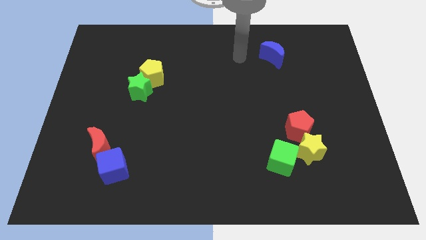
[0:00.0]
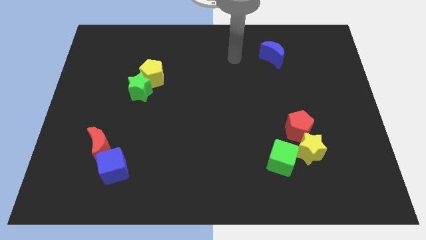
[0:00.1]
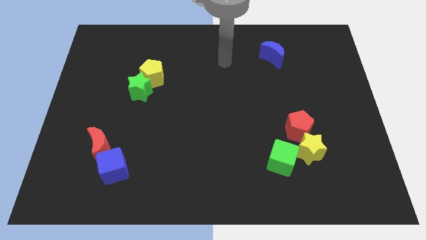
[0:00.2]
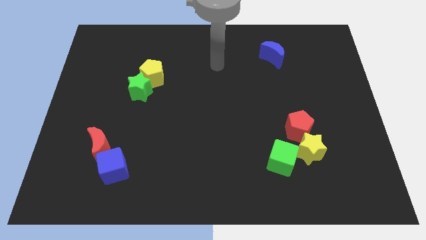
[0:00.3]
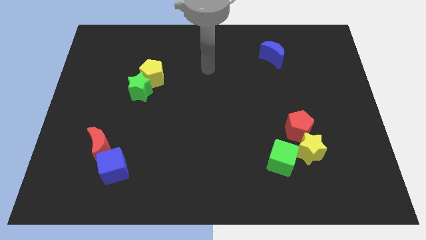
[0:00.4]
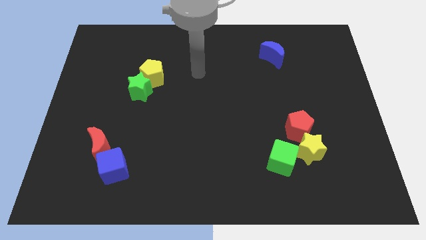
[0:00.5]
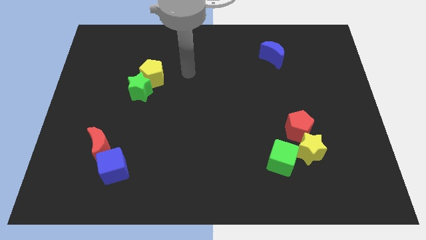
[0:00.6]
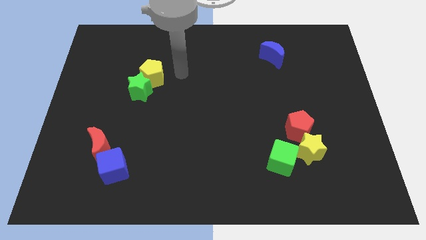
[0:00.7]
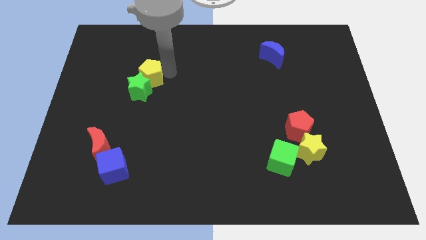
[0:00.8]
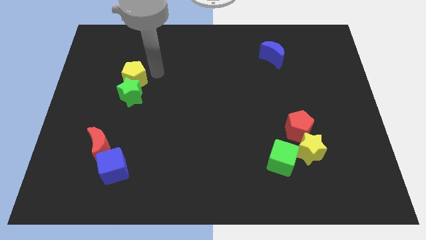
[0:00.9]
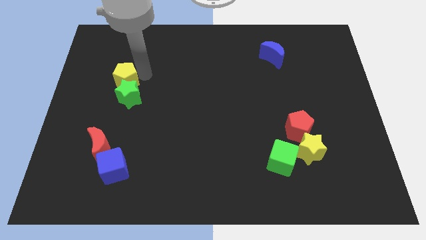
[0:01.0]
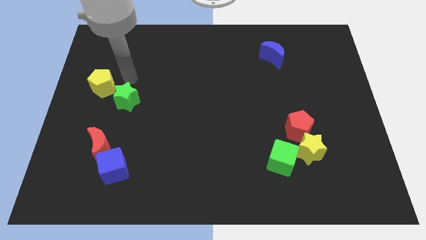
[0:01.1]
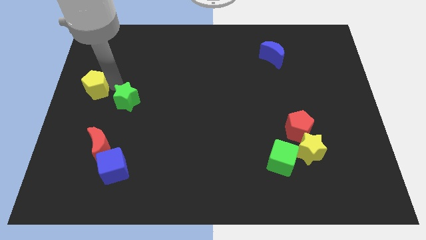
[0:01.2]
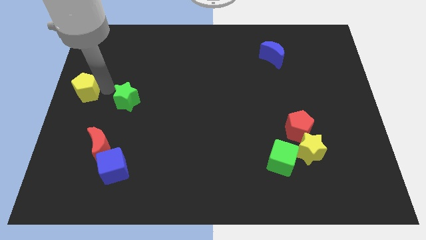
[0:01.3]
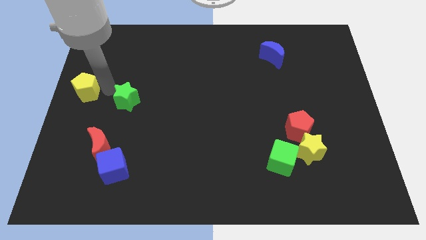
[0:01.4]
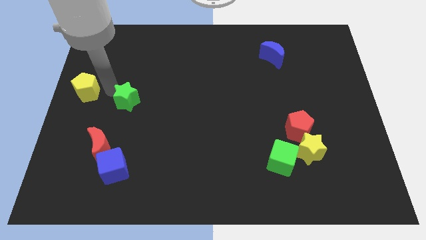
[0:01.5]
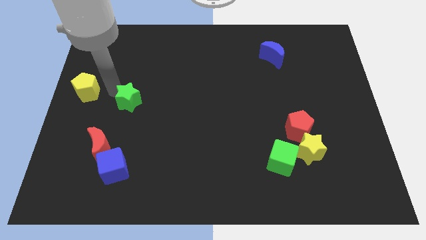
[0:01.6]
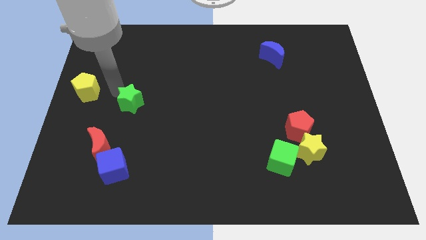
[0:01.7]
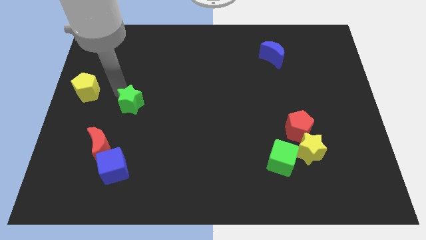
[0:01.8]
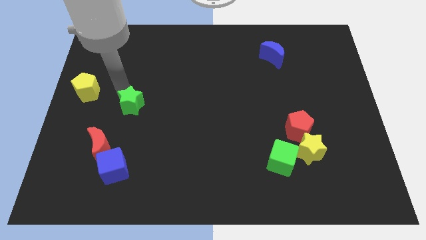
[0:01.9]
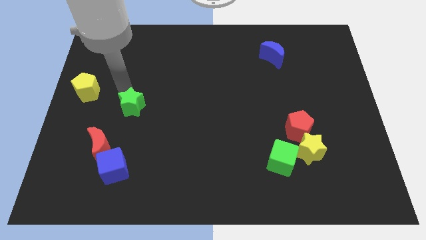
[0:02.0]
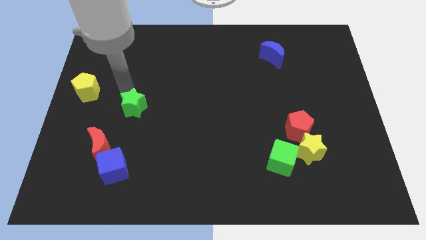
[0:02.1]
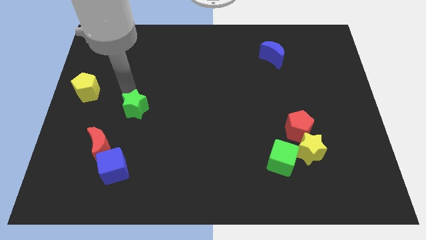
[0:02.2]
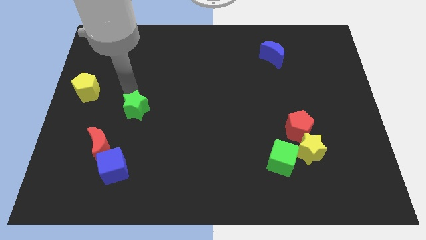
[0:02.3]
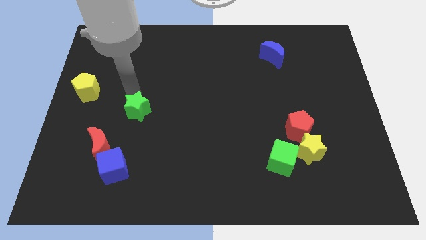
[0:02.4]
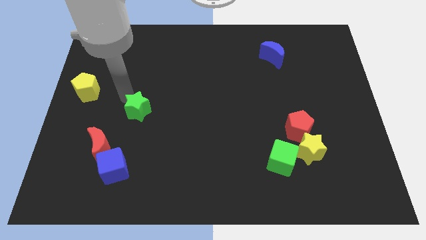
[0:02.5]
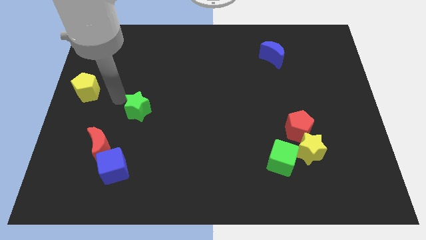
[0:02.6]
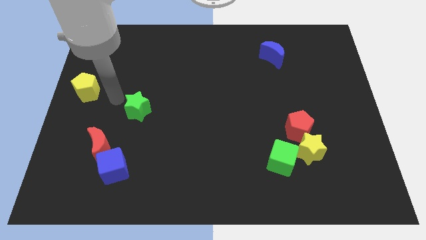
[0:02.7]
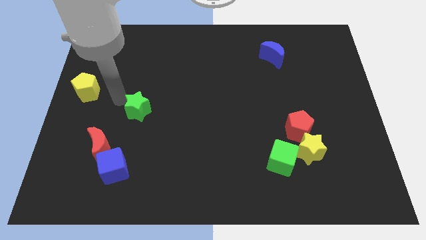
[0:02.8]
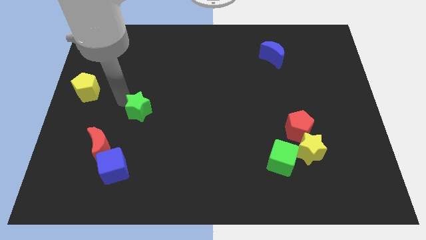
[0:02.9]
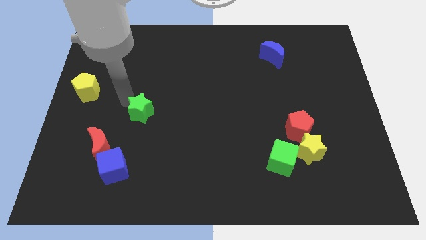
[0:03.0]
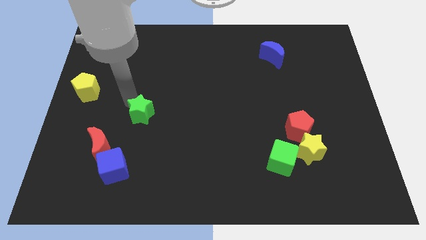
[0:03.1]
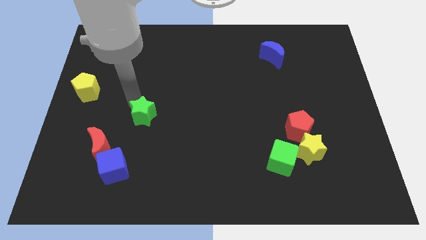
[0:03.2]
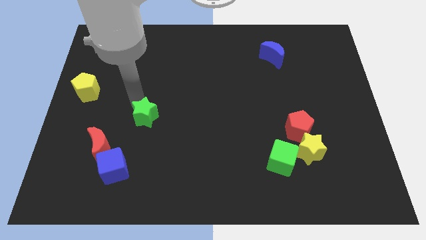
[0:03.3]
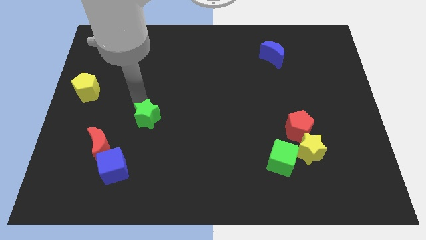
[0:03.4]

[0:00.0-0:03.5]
slightly slide the green star down and to the right

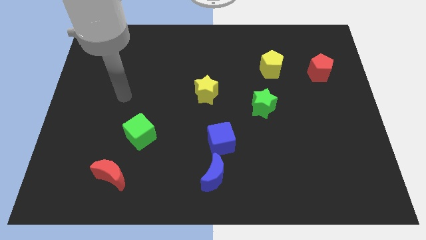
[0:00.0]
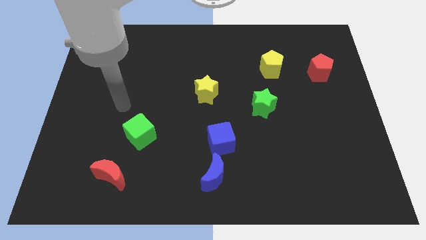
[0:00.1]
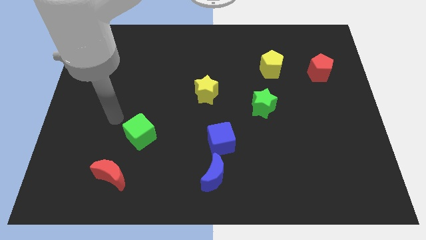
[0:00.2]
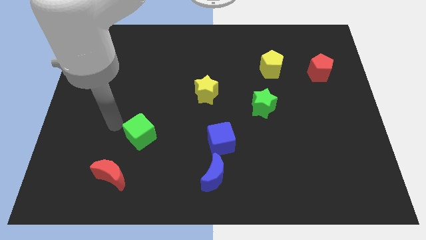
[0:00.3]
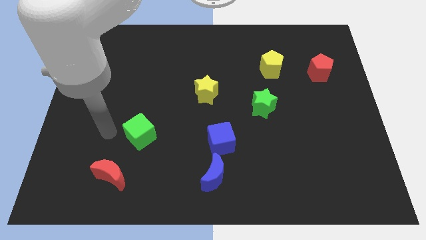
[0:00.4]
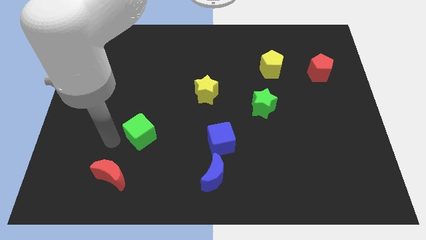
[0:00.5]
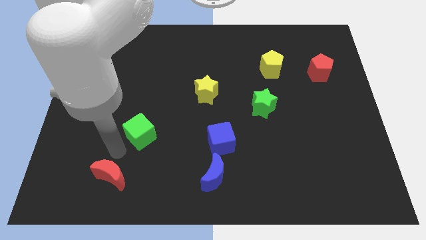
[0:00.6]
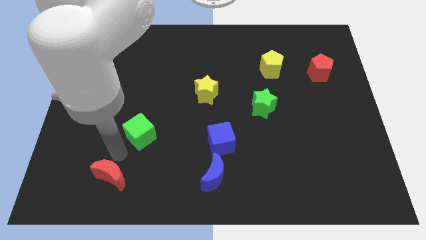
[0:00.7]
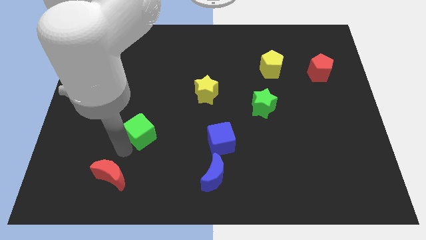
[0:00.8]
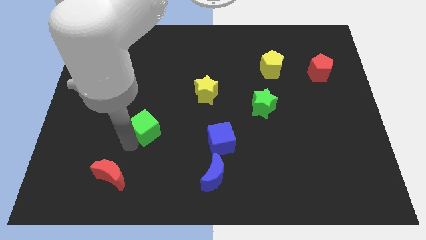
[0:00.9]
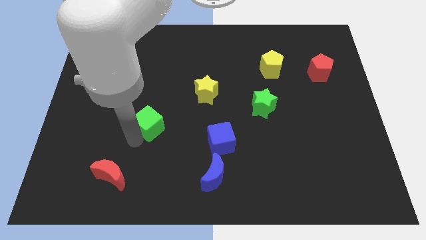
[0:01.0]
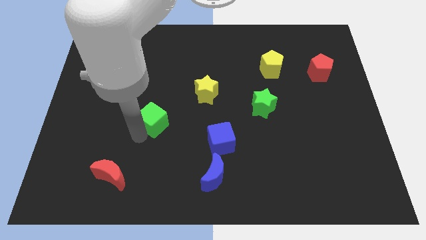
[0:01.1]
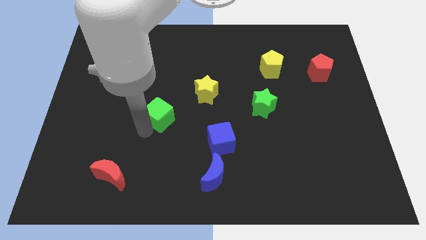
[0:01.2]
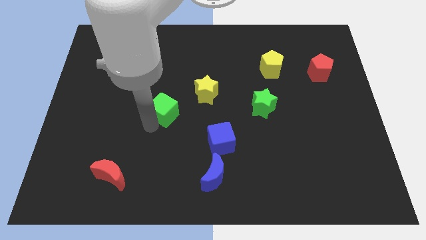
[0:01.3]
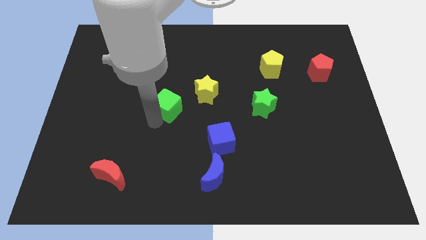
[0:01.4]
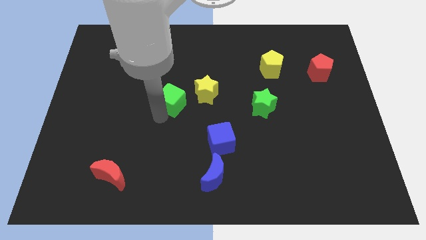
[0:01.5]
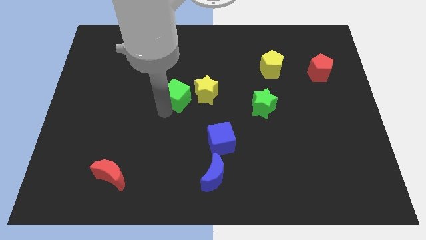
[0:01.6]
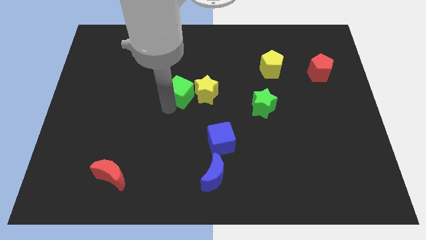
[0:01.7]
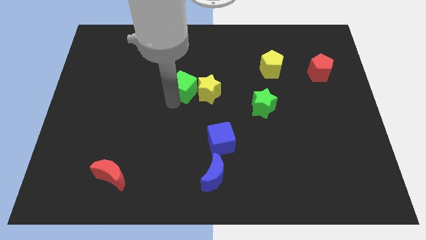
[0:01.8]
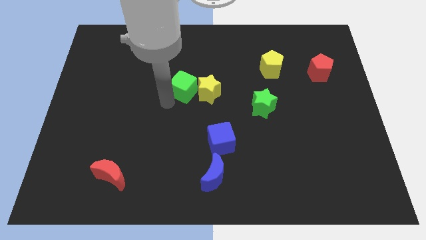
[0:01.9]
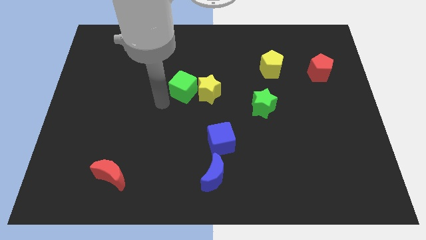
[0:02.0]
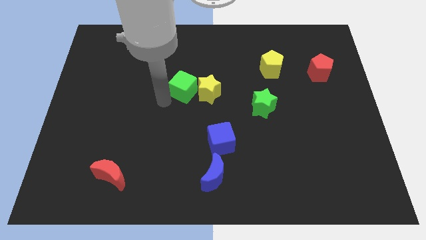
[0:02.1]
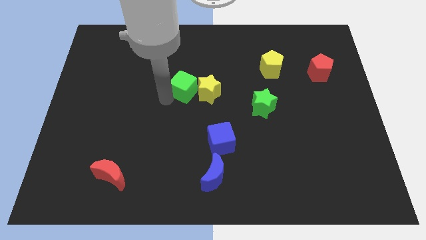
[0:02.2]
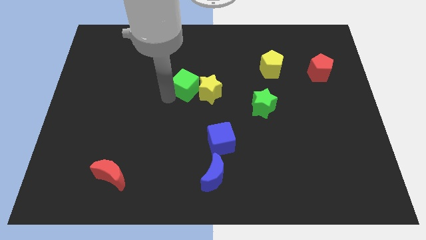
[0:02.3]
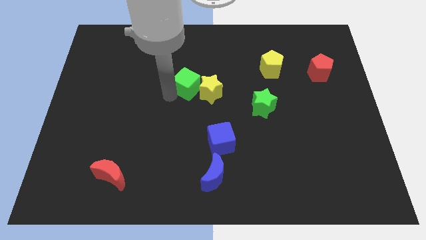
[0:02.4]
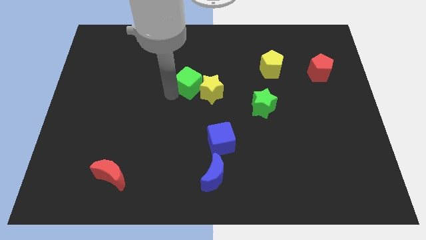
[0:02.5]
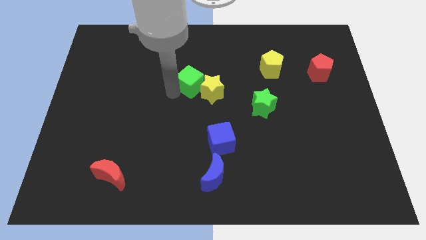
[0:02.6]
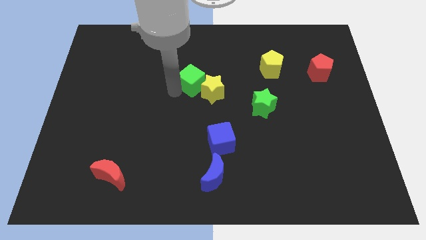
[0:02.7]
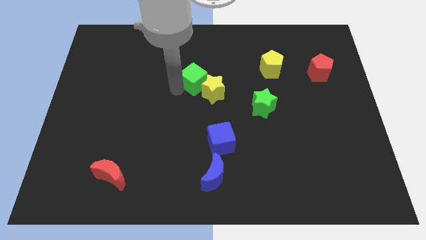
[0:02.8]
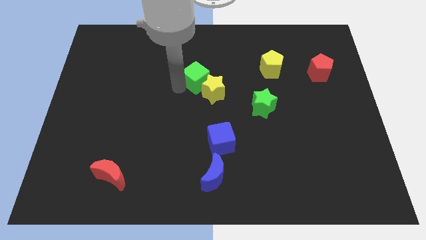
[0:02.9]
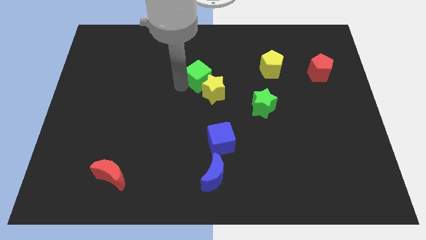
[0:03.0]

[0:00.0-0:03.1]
move the green cube upwards and to the right

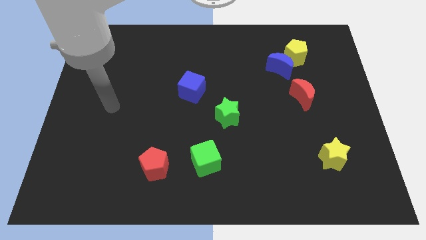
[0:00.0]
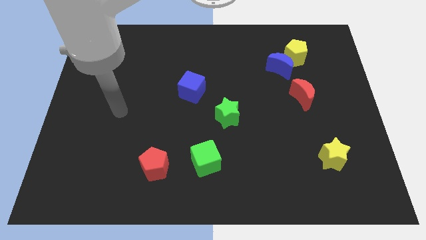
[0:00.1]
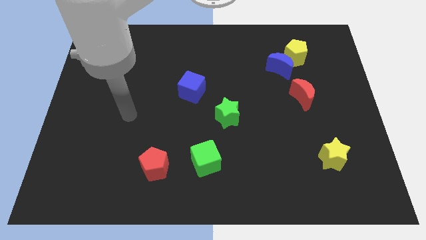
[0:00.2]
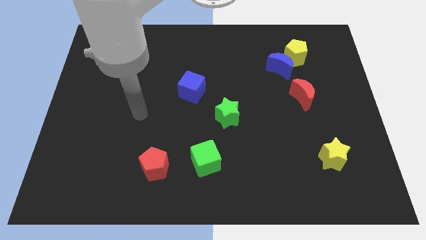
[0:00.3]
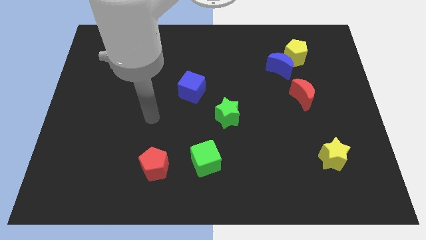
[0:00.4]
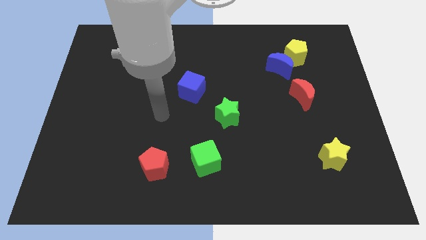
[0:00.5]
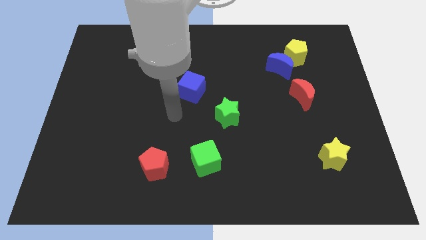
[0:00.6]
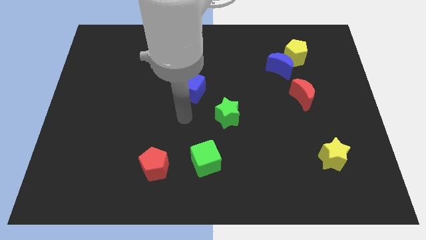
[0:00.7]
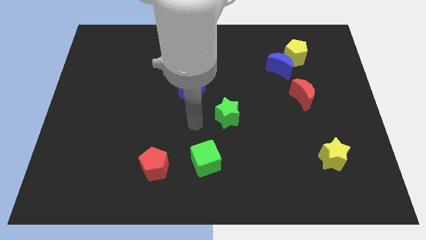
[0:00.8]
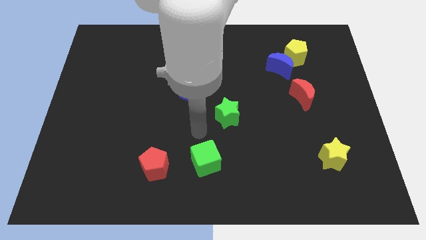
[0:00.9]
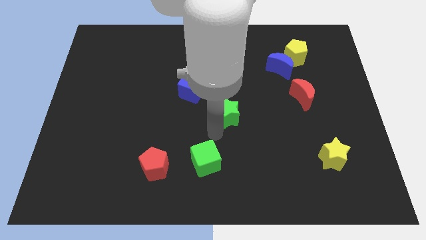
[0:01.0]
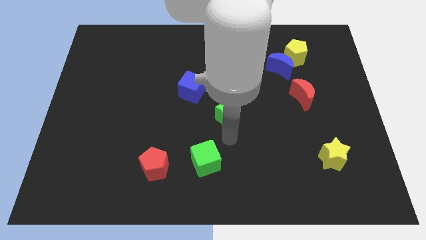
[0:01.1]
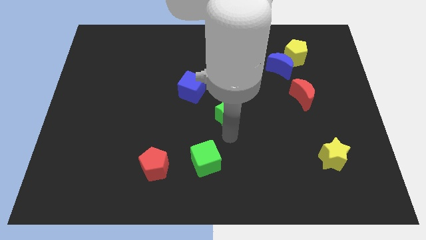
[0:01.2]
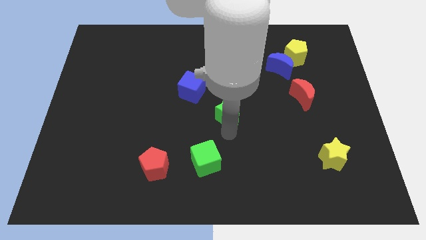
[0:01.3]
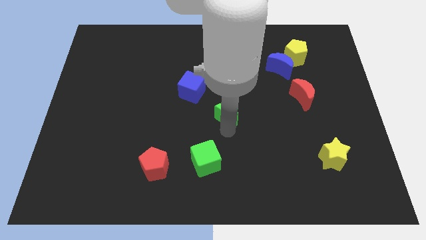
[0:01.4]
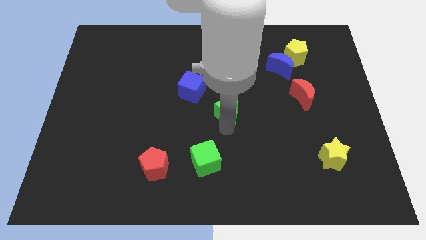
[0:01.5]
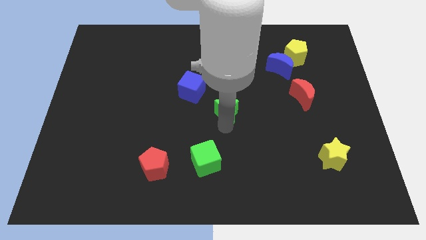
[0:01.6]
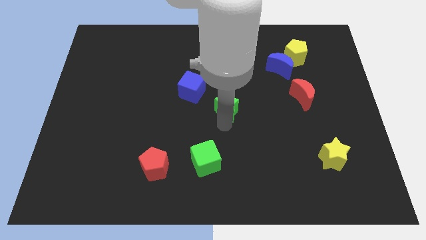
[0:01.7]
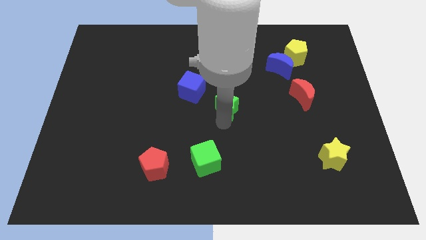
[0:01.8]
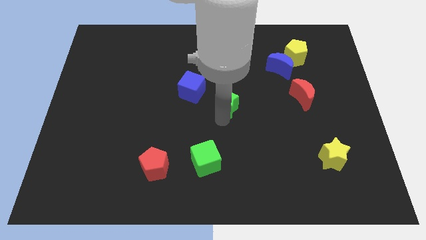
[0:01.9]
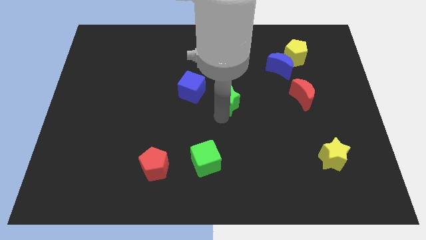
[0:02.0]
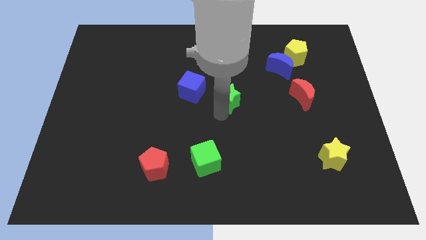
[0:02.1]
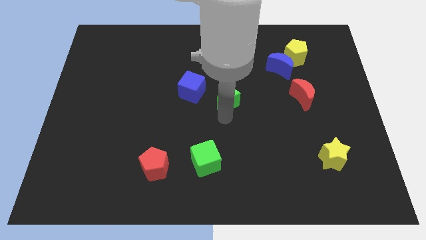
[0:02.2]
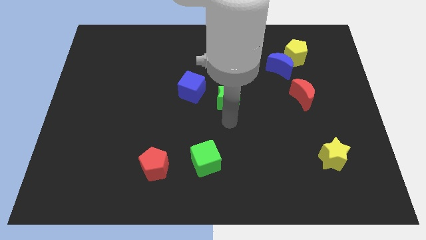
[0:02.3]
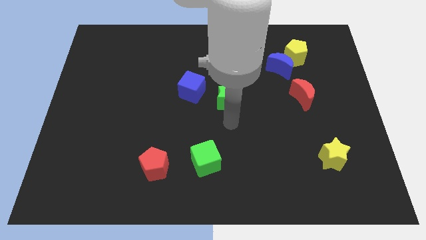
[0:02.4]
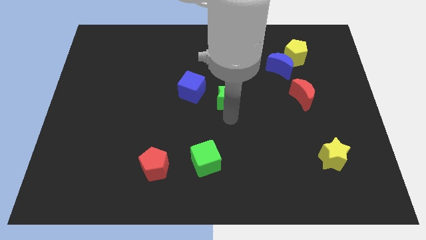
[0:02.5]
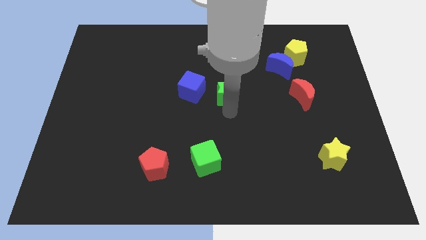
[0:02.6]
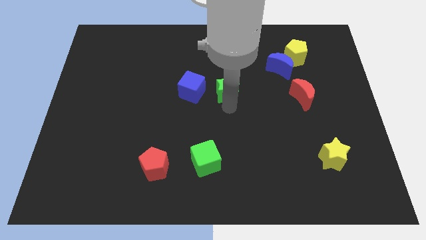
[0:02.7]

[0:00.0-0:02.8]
slide the green star upwards a little
